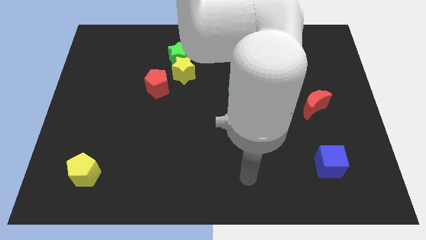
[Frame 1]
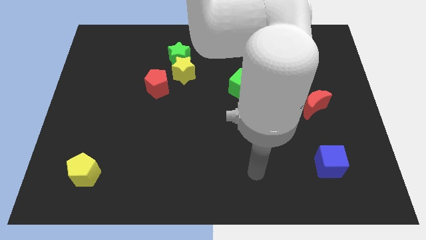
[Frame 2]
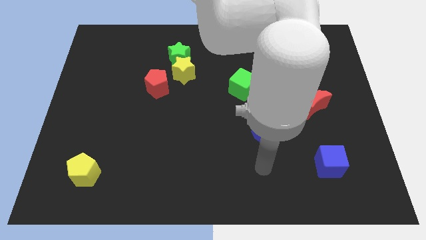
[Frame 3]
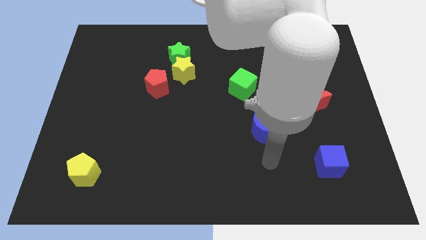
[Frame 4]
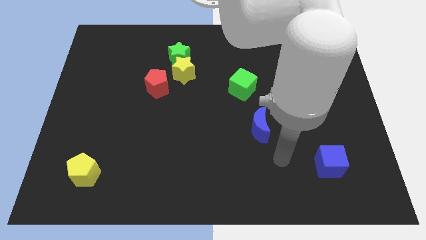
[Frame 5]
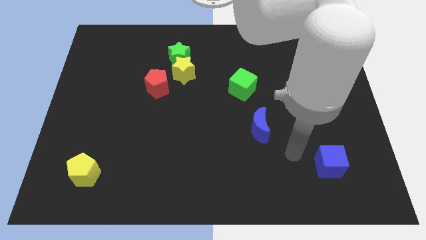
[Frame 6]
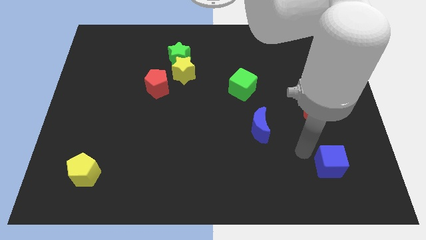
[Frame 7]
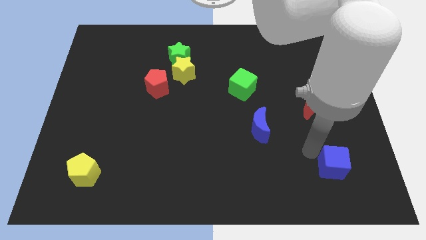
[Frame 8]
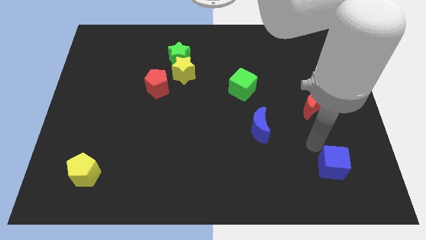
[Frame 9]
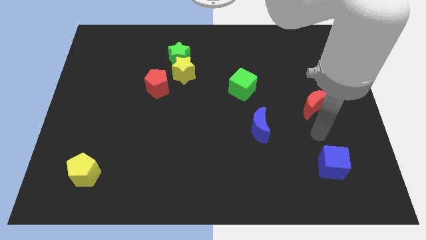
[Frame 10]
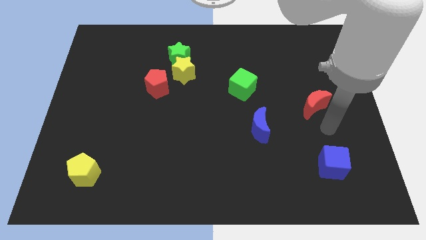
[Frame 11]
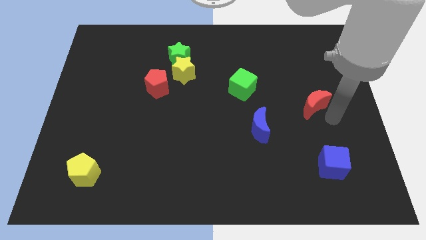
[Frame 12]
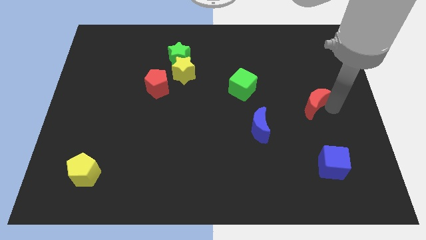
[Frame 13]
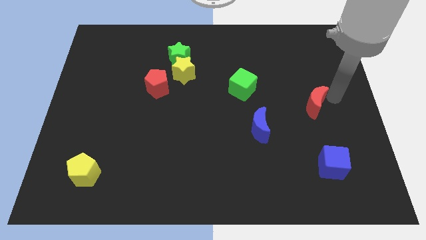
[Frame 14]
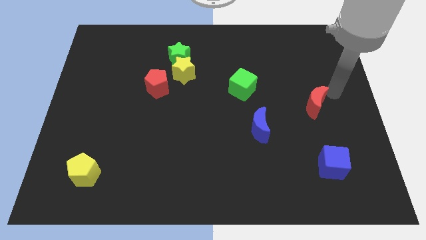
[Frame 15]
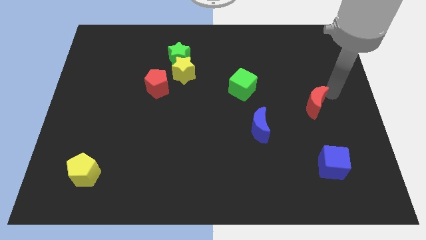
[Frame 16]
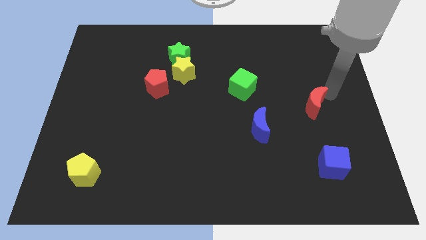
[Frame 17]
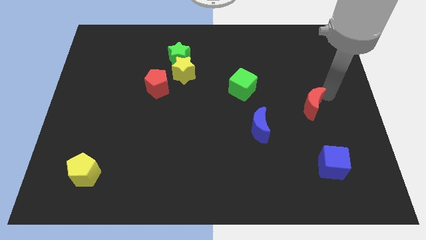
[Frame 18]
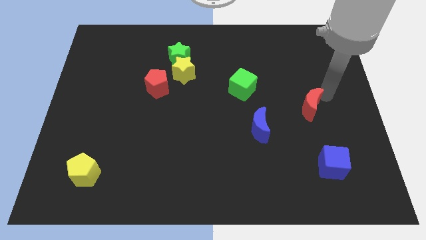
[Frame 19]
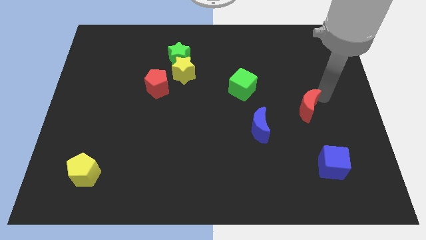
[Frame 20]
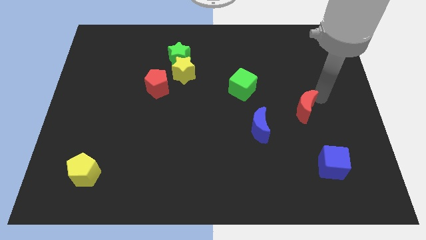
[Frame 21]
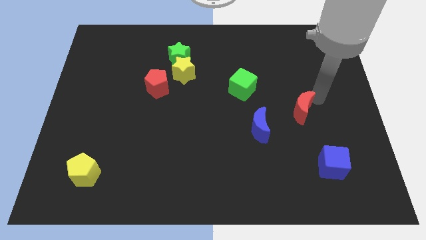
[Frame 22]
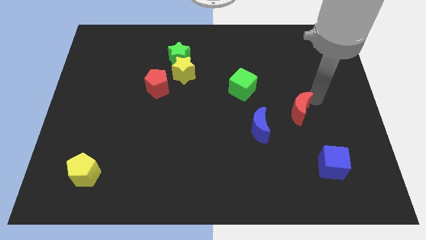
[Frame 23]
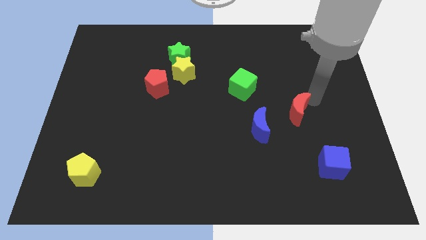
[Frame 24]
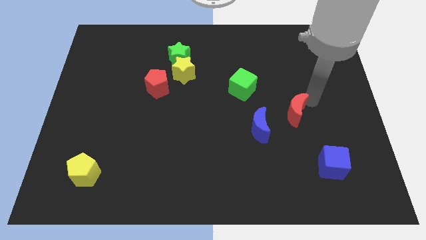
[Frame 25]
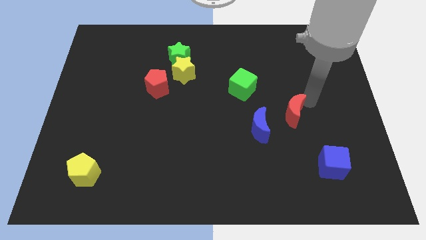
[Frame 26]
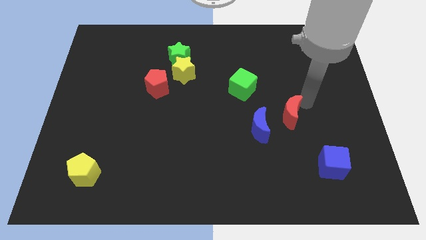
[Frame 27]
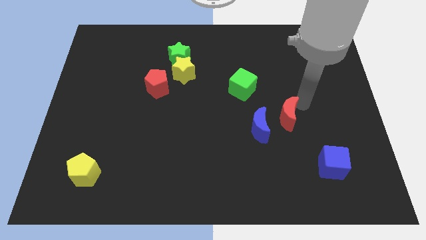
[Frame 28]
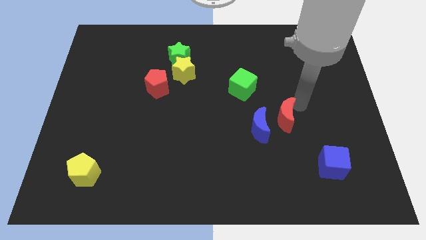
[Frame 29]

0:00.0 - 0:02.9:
slide the red moon slightly left

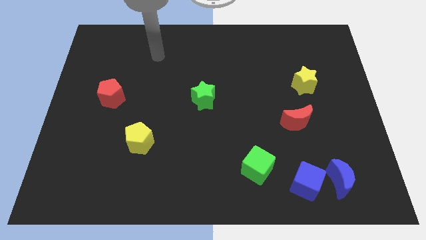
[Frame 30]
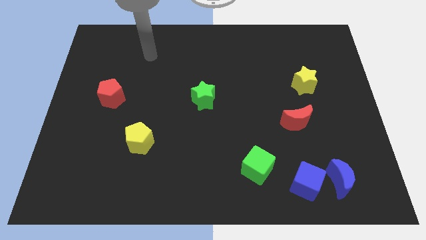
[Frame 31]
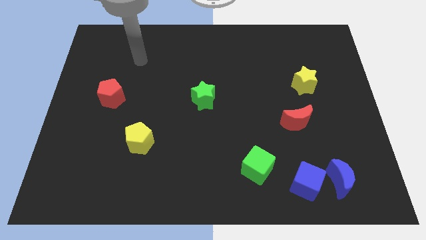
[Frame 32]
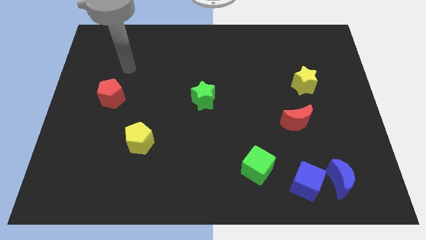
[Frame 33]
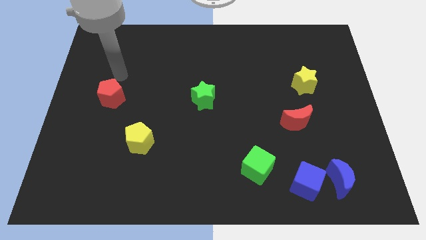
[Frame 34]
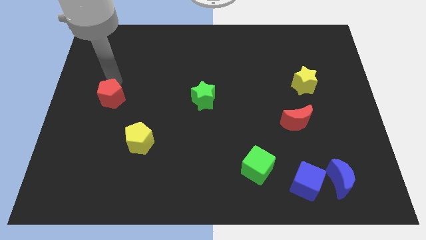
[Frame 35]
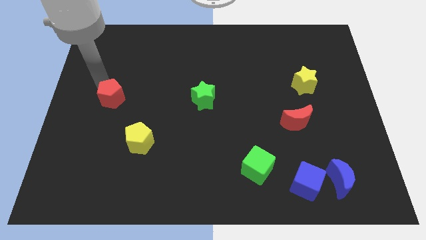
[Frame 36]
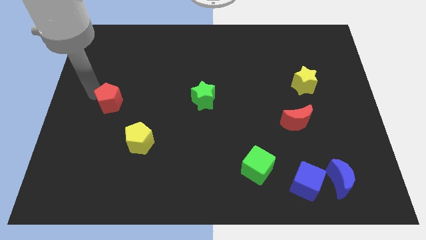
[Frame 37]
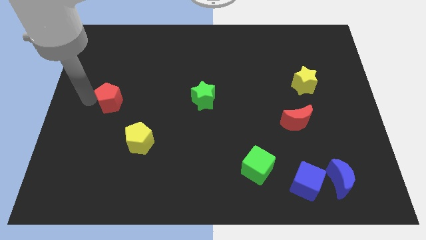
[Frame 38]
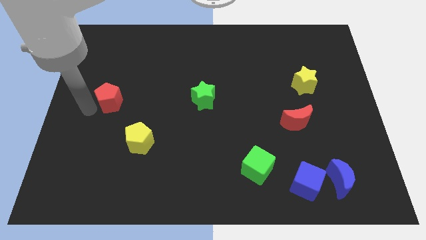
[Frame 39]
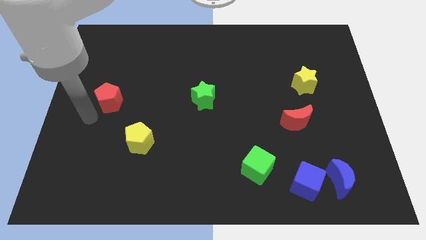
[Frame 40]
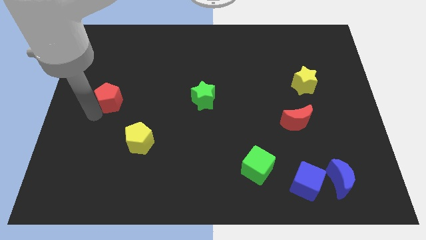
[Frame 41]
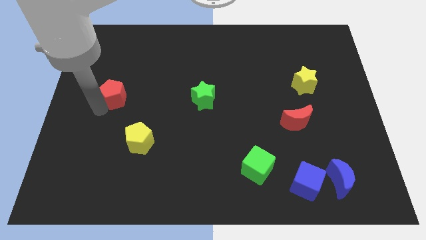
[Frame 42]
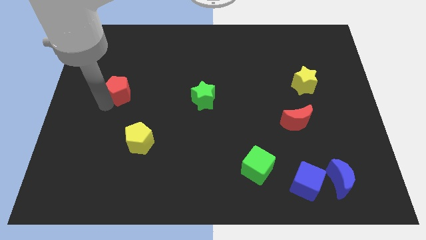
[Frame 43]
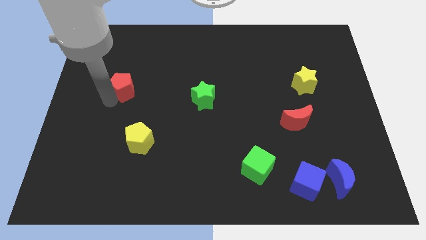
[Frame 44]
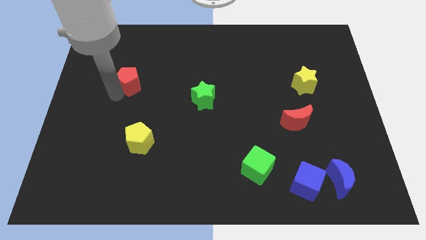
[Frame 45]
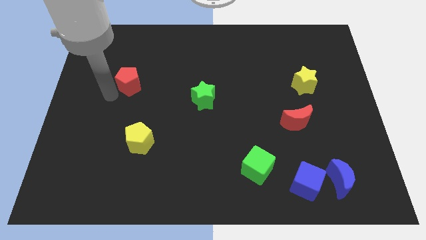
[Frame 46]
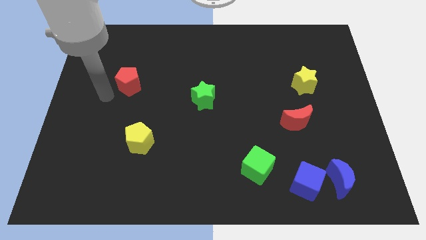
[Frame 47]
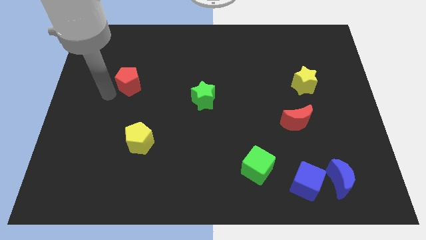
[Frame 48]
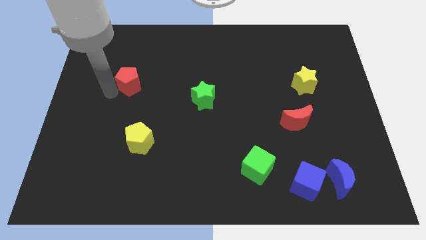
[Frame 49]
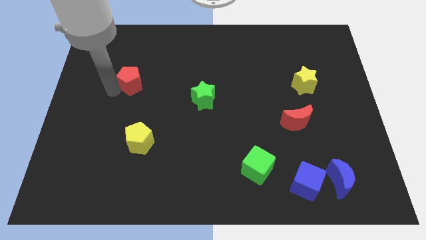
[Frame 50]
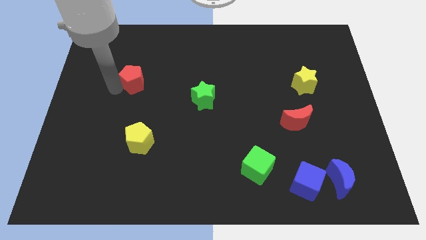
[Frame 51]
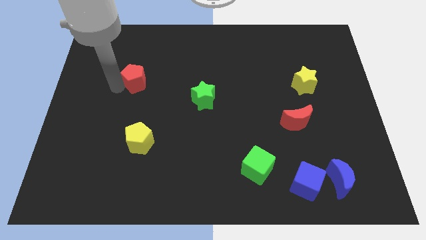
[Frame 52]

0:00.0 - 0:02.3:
move the red pentagon a little upwards and to the right

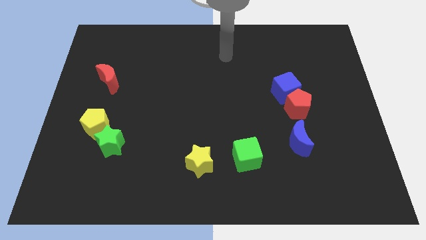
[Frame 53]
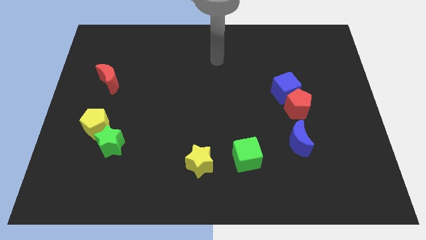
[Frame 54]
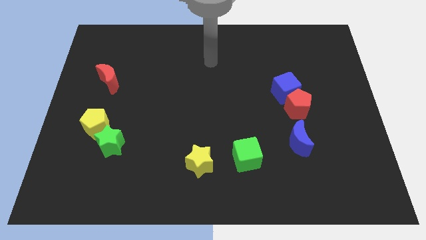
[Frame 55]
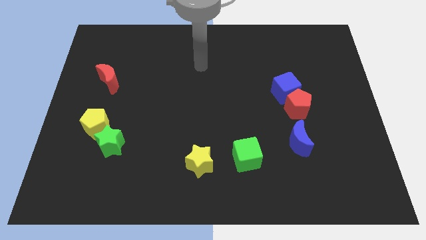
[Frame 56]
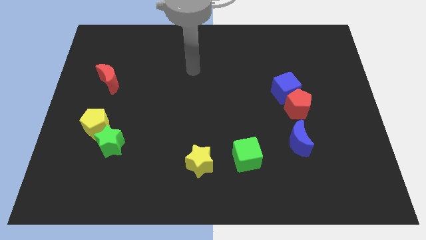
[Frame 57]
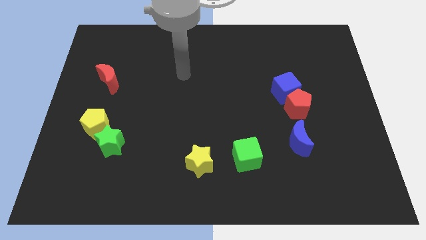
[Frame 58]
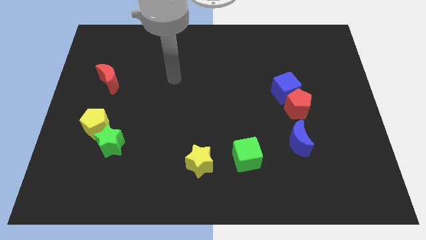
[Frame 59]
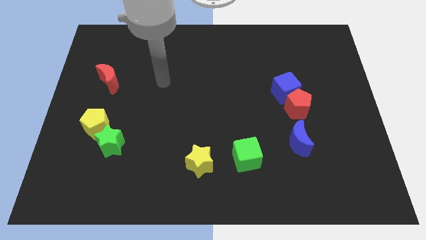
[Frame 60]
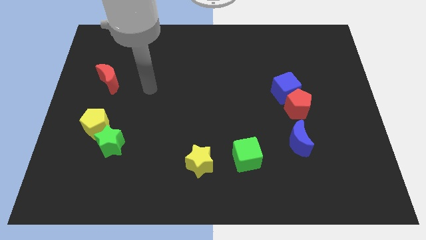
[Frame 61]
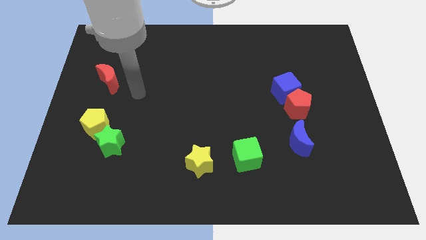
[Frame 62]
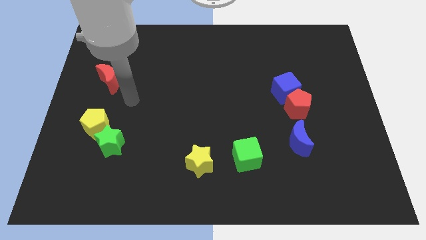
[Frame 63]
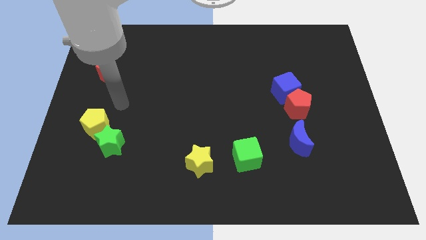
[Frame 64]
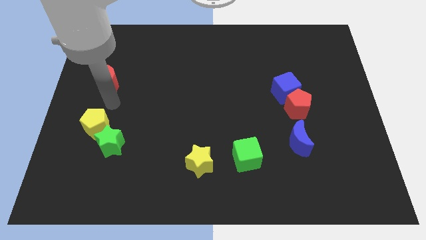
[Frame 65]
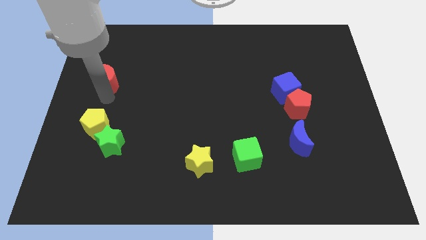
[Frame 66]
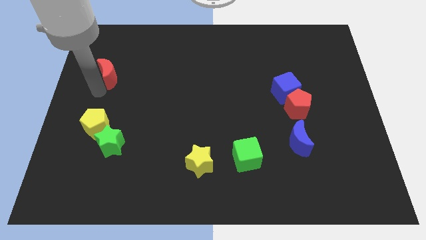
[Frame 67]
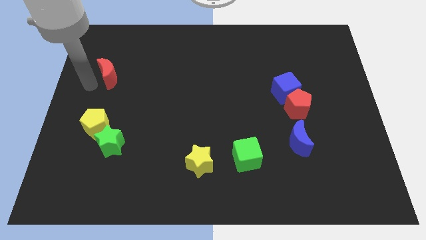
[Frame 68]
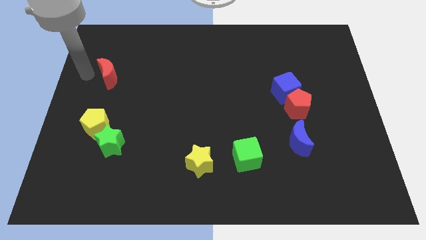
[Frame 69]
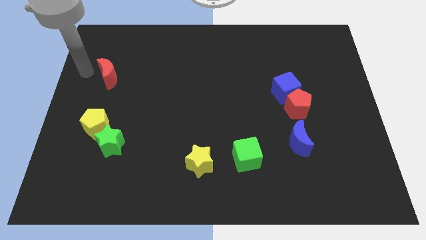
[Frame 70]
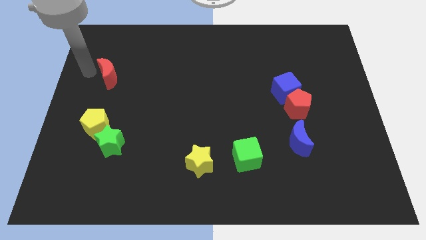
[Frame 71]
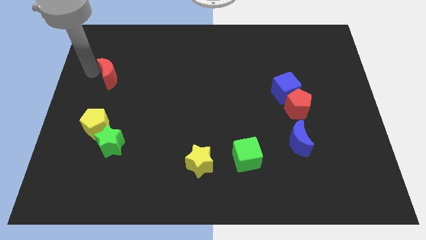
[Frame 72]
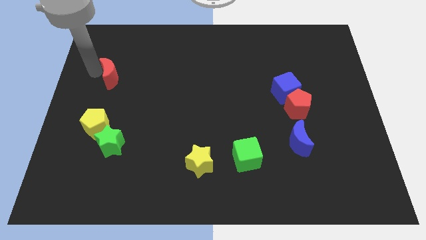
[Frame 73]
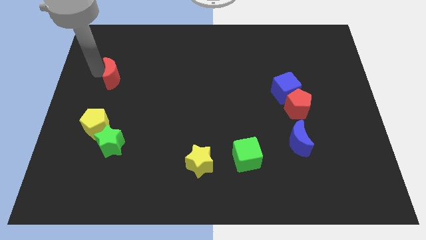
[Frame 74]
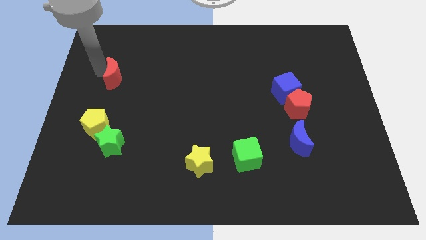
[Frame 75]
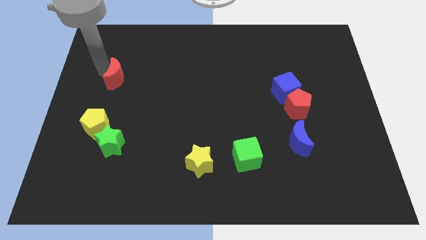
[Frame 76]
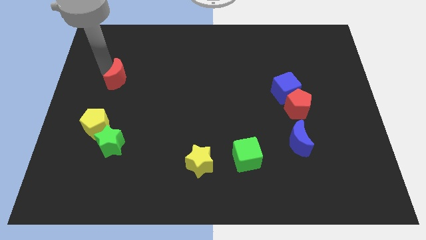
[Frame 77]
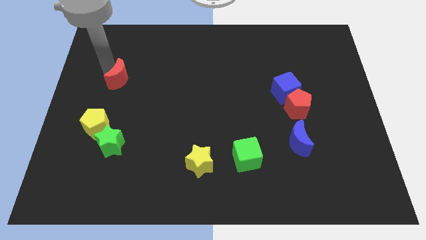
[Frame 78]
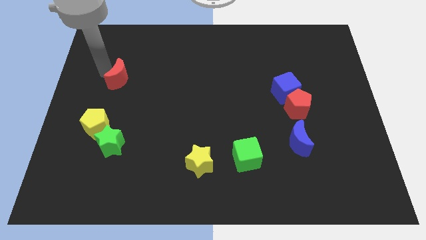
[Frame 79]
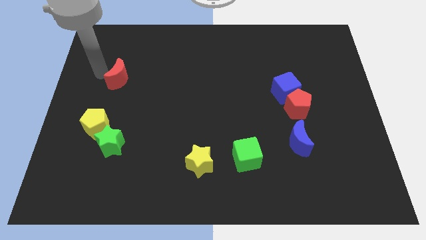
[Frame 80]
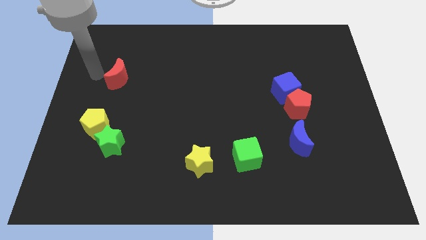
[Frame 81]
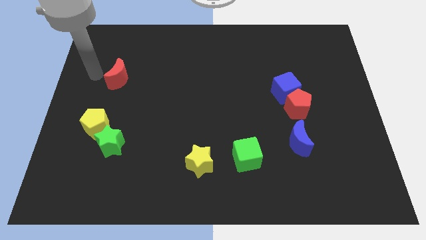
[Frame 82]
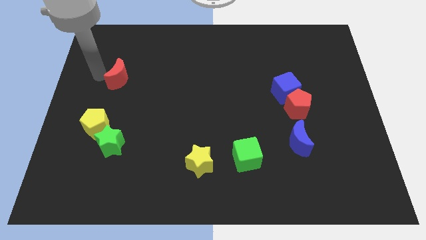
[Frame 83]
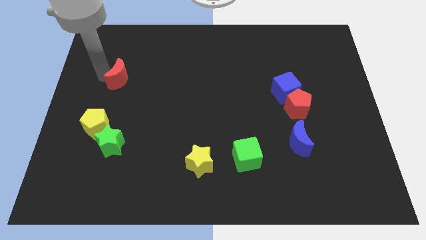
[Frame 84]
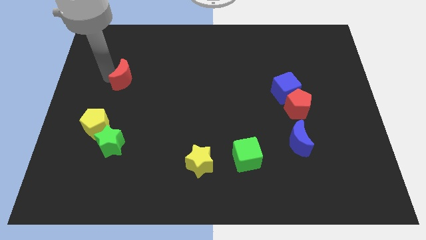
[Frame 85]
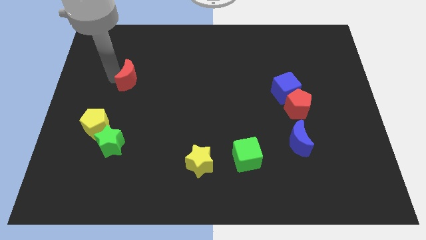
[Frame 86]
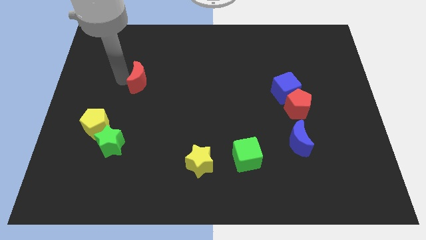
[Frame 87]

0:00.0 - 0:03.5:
move the red moon a bit right
